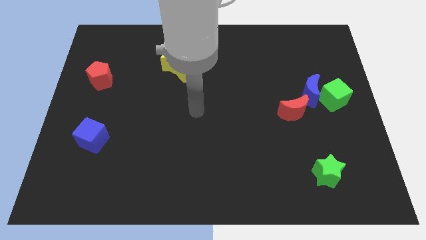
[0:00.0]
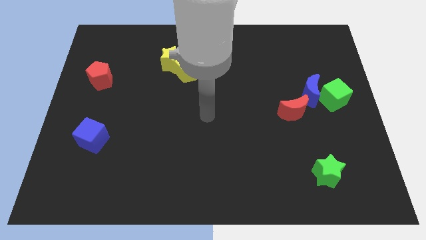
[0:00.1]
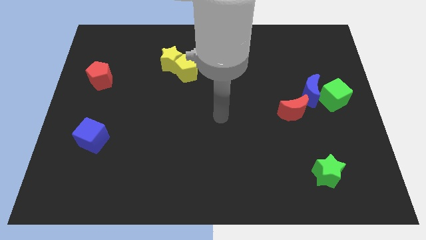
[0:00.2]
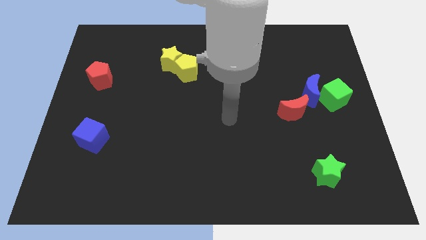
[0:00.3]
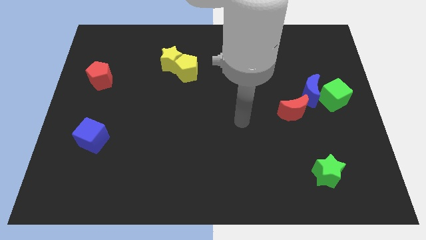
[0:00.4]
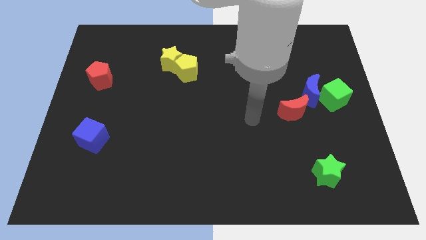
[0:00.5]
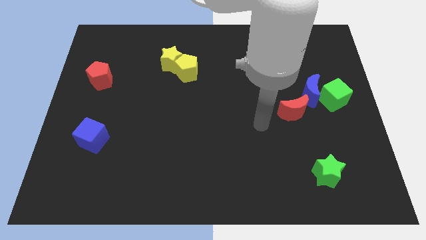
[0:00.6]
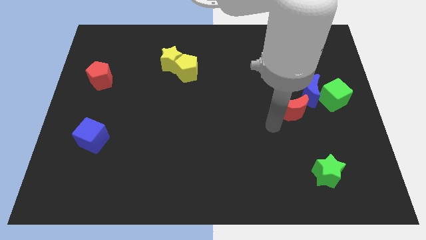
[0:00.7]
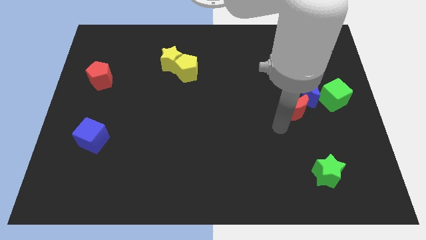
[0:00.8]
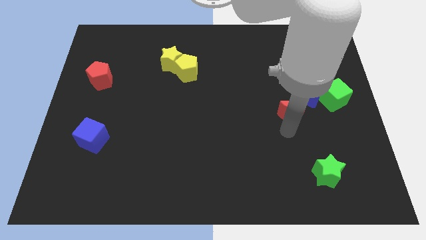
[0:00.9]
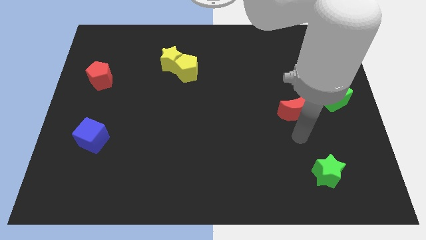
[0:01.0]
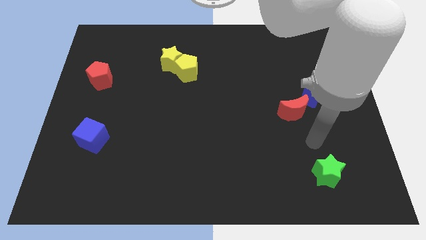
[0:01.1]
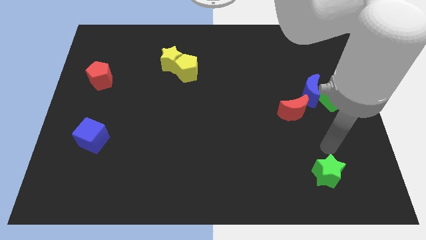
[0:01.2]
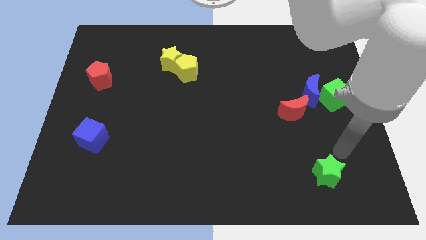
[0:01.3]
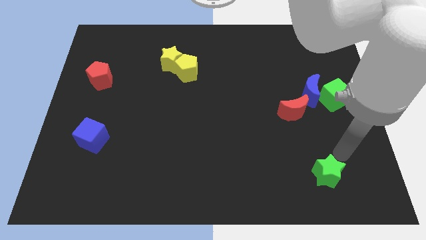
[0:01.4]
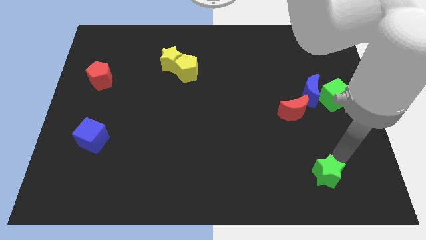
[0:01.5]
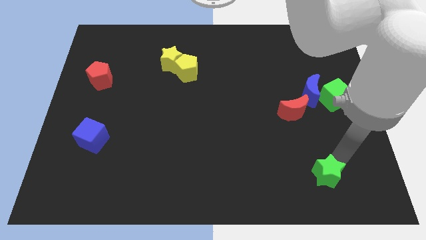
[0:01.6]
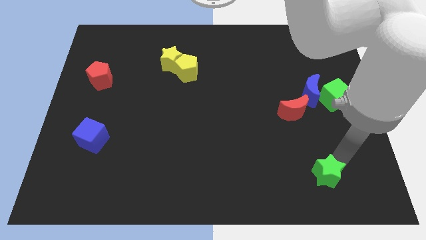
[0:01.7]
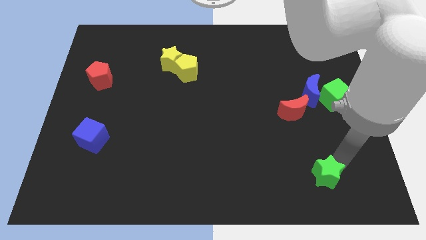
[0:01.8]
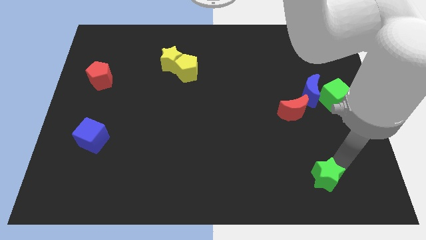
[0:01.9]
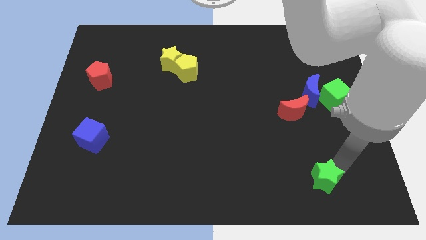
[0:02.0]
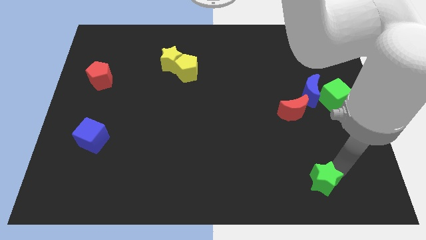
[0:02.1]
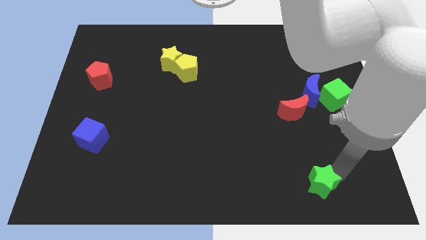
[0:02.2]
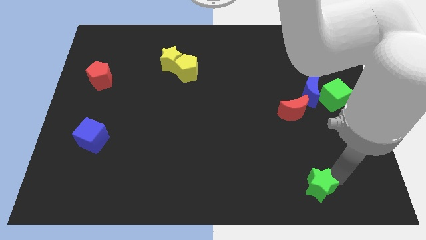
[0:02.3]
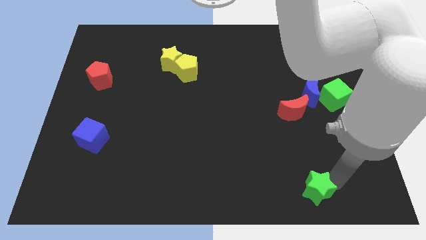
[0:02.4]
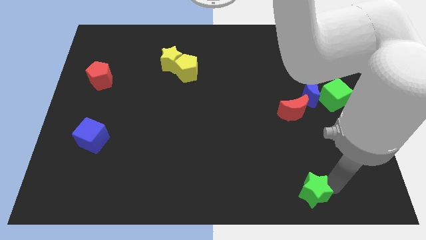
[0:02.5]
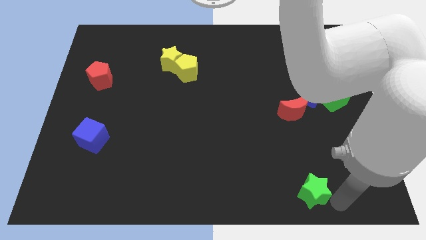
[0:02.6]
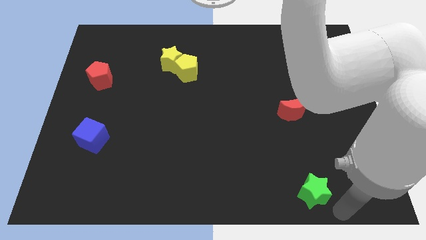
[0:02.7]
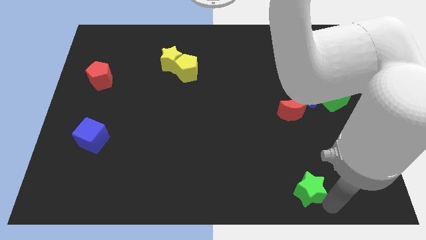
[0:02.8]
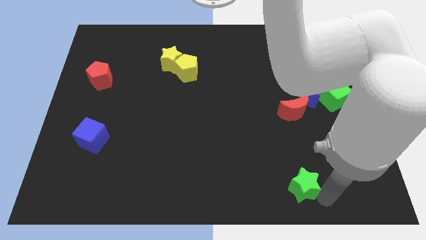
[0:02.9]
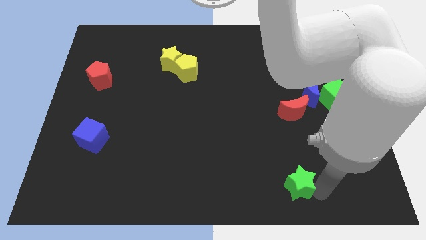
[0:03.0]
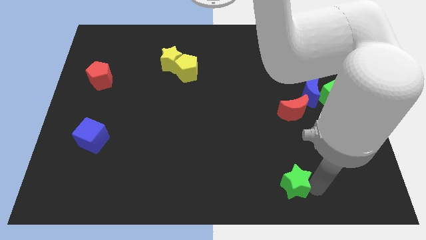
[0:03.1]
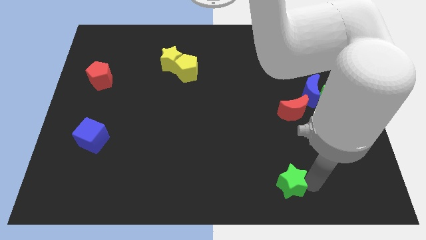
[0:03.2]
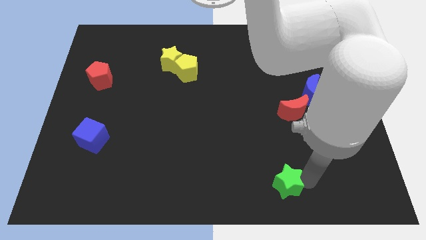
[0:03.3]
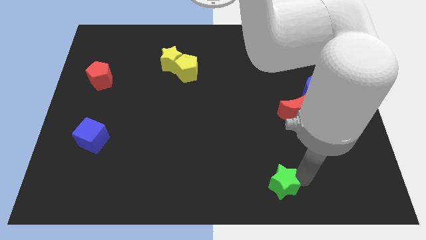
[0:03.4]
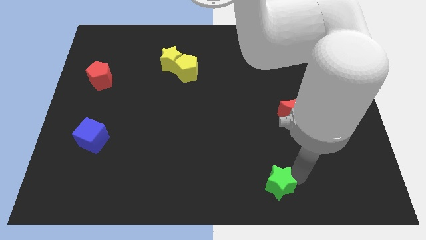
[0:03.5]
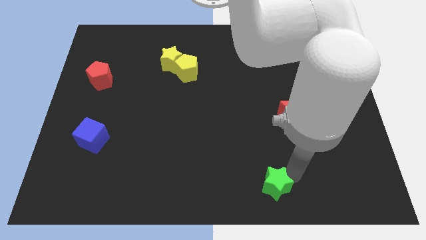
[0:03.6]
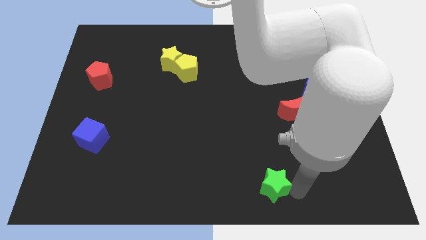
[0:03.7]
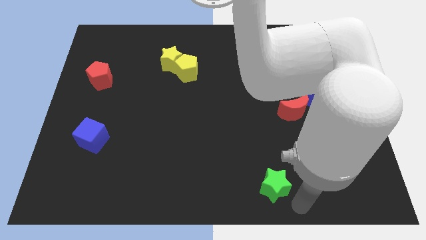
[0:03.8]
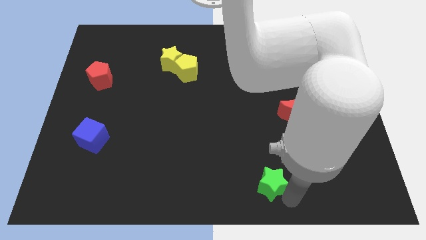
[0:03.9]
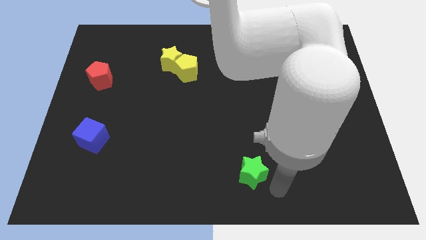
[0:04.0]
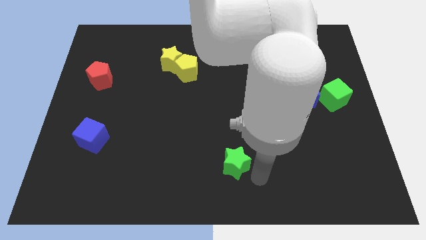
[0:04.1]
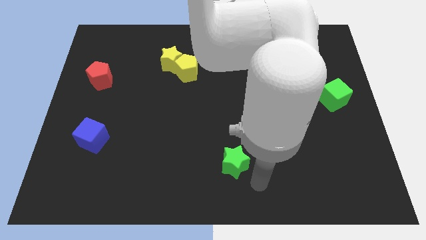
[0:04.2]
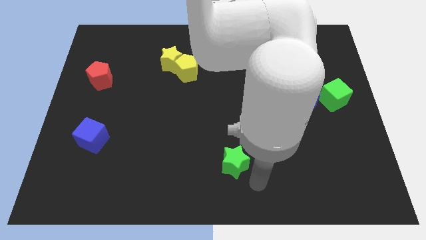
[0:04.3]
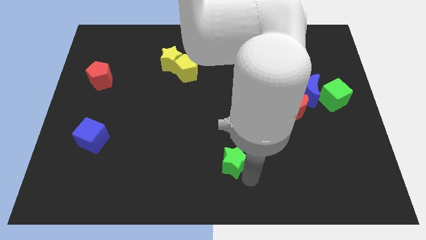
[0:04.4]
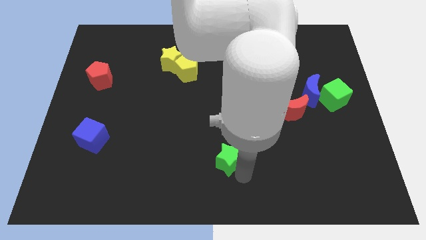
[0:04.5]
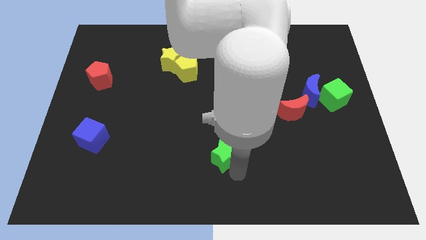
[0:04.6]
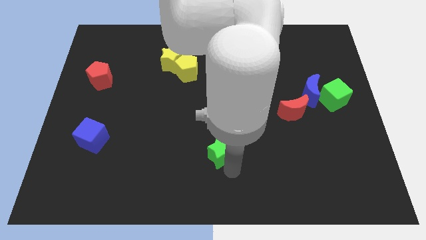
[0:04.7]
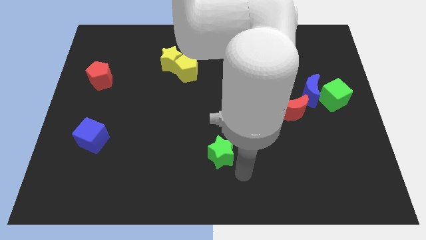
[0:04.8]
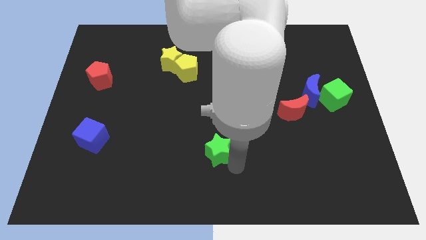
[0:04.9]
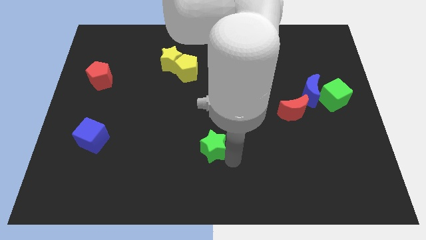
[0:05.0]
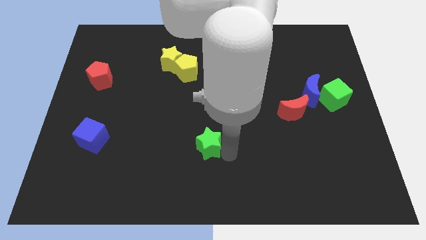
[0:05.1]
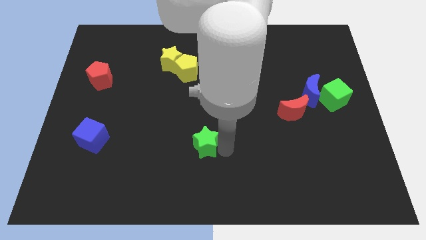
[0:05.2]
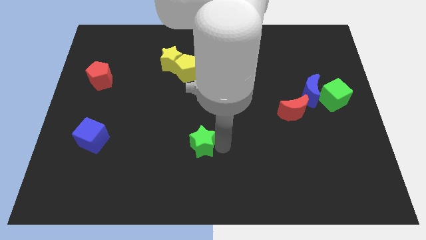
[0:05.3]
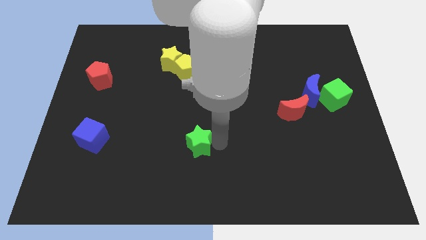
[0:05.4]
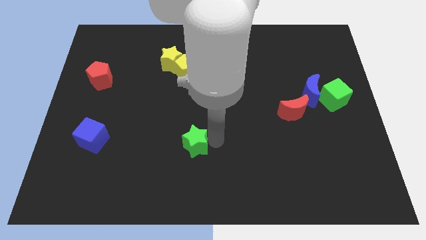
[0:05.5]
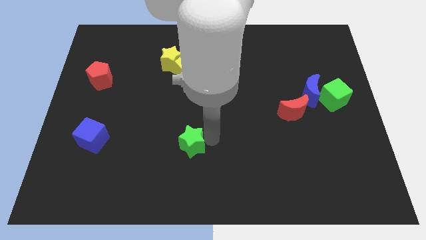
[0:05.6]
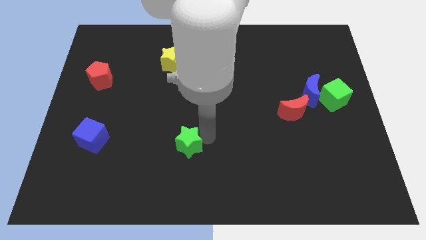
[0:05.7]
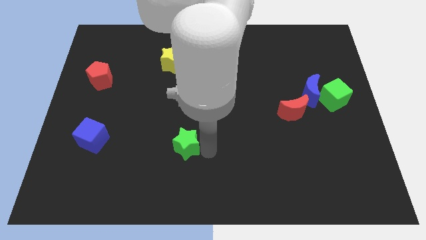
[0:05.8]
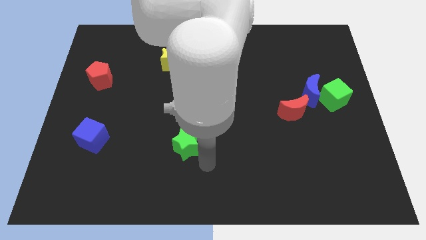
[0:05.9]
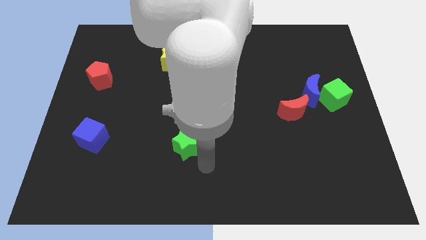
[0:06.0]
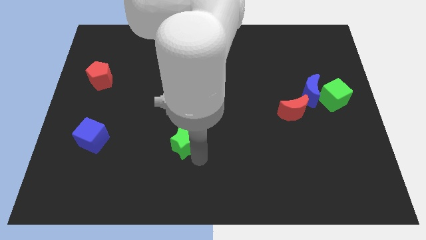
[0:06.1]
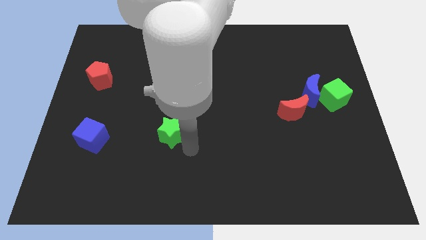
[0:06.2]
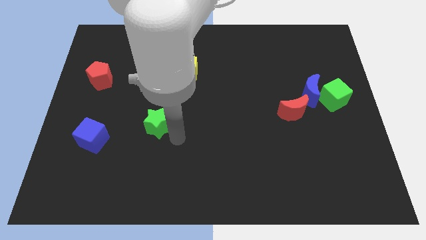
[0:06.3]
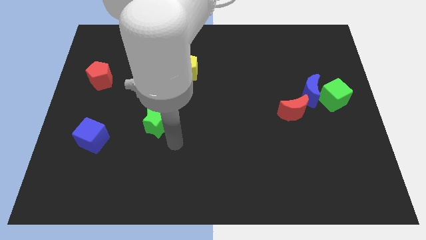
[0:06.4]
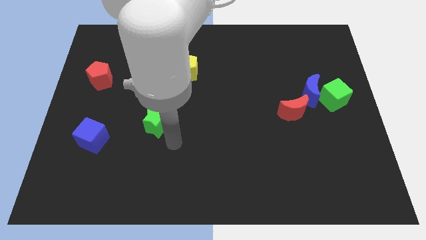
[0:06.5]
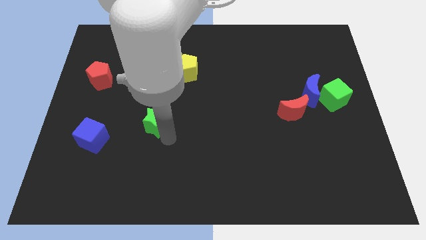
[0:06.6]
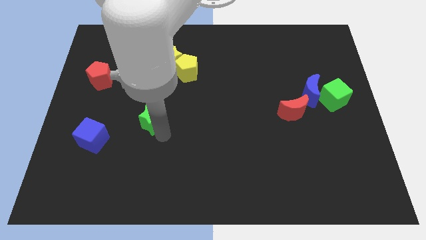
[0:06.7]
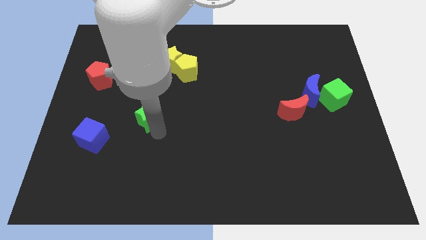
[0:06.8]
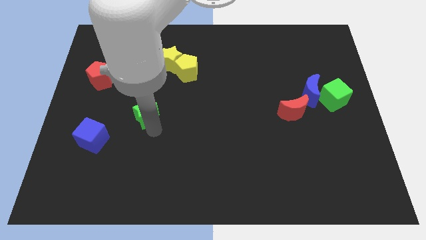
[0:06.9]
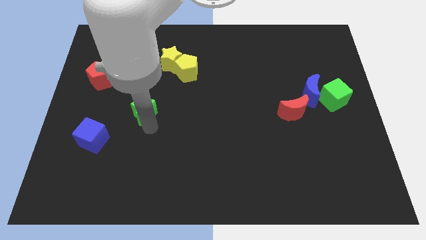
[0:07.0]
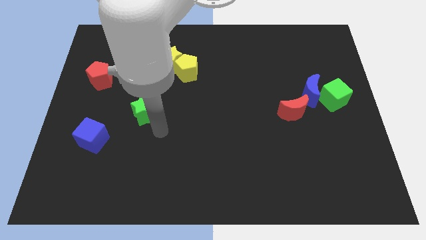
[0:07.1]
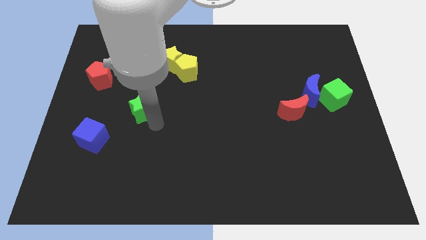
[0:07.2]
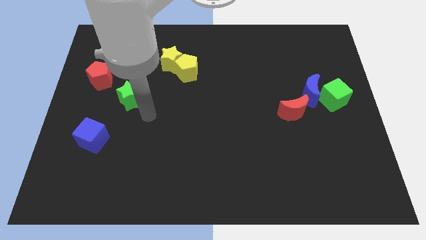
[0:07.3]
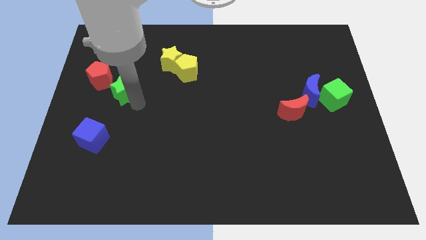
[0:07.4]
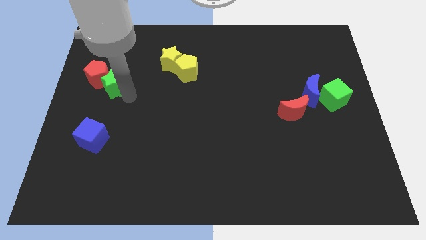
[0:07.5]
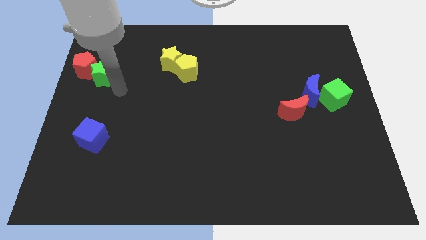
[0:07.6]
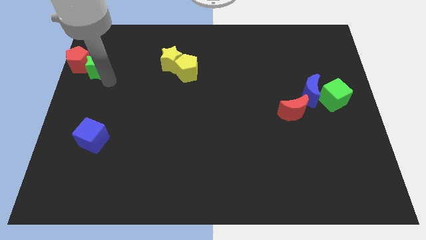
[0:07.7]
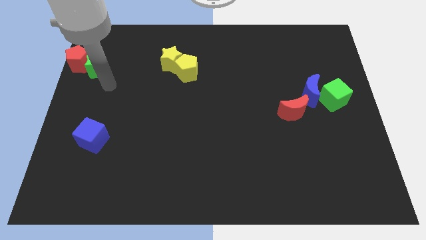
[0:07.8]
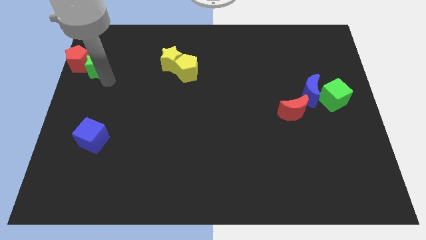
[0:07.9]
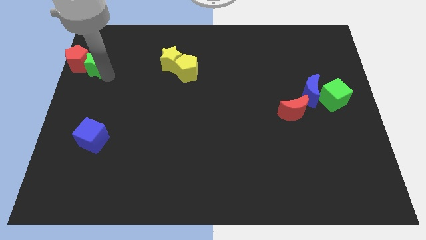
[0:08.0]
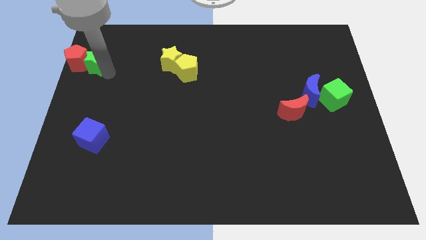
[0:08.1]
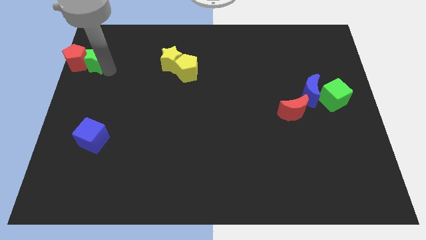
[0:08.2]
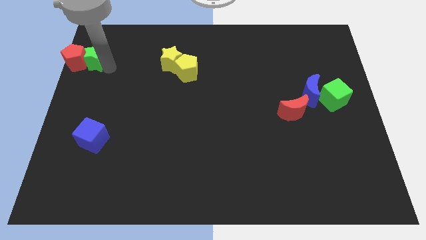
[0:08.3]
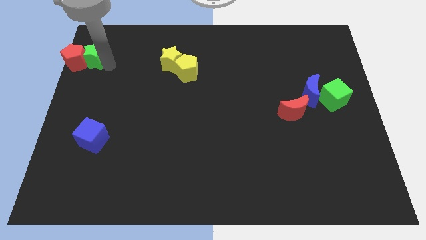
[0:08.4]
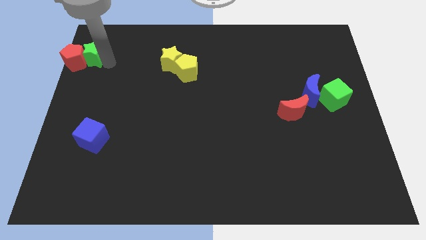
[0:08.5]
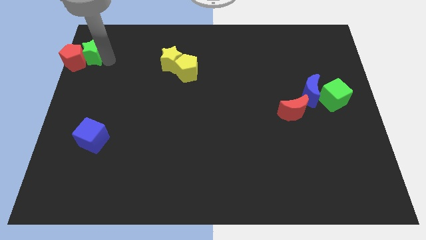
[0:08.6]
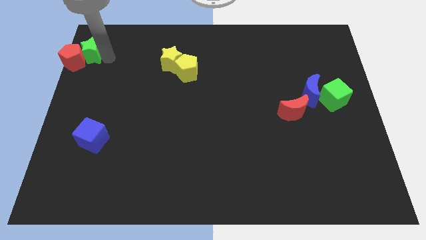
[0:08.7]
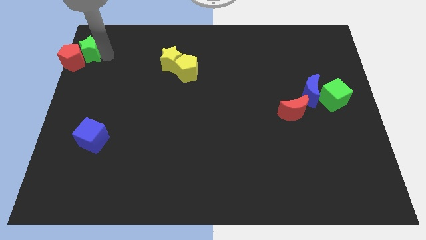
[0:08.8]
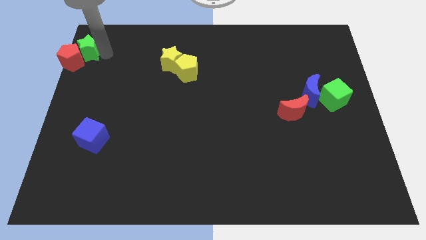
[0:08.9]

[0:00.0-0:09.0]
put the green star to the top left
